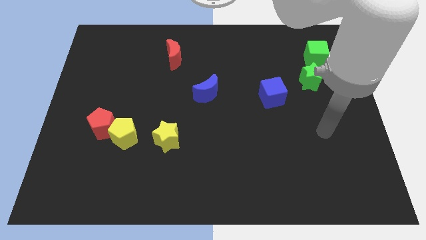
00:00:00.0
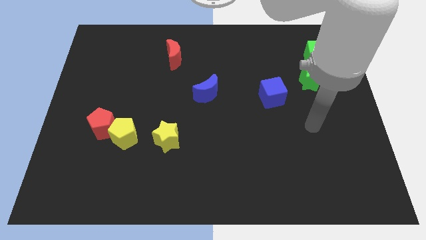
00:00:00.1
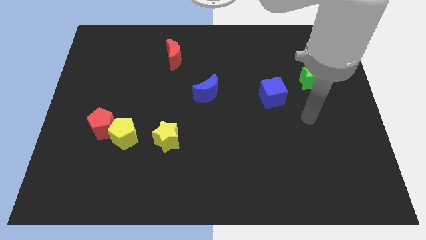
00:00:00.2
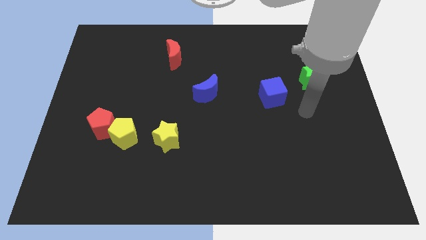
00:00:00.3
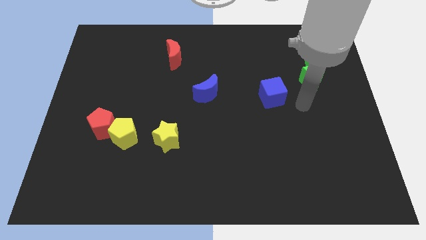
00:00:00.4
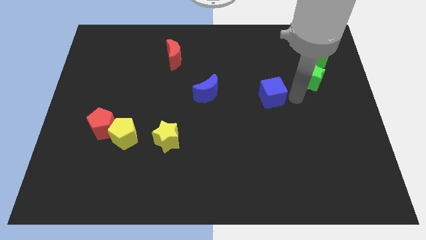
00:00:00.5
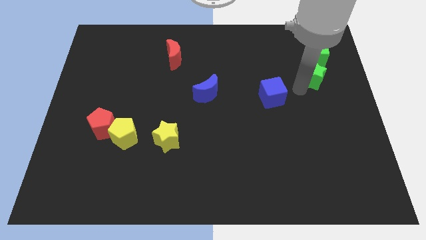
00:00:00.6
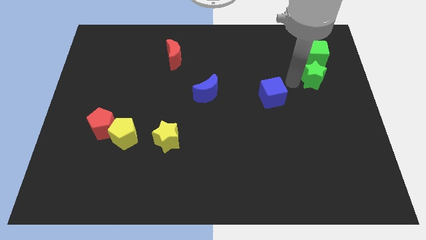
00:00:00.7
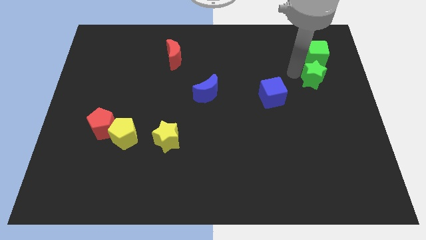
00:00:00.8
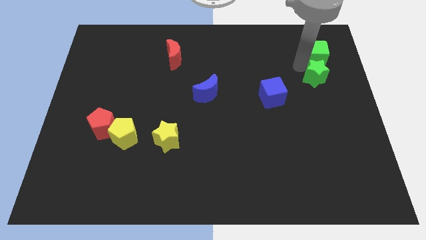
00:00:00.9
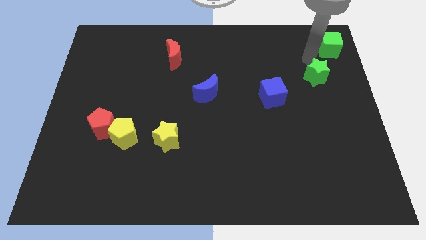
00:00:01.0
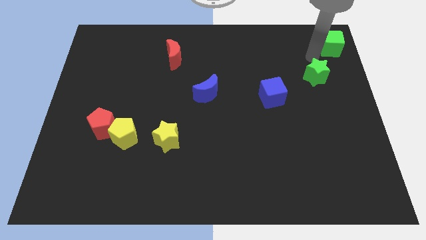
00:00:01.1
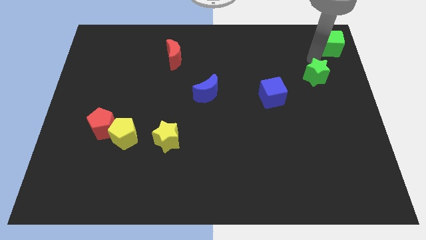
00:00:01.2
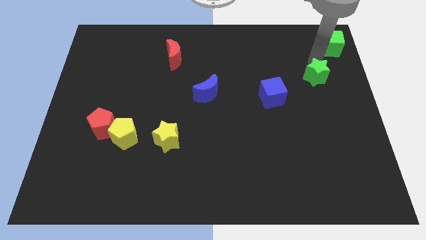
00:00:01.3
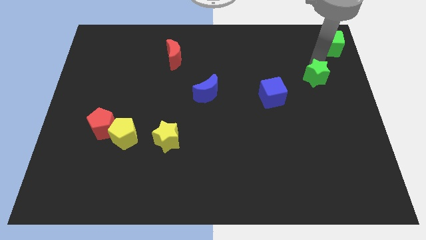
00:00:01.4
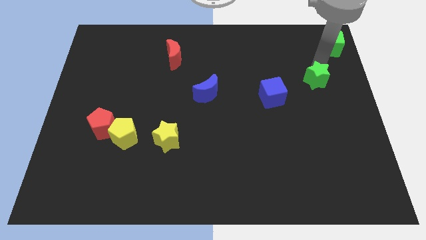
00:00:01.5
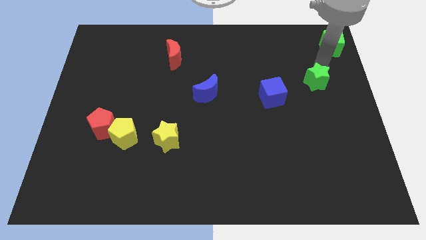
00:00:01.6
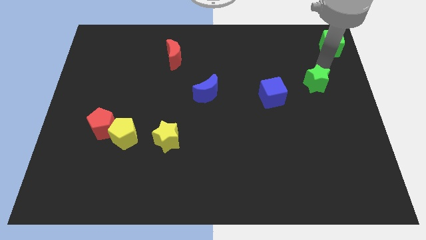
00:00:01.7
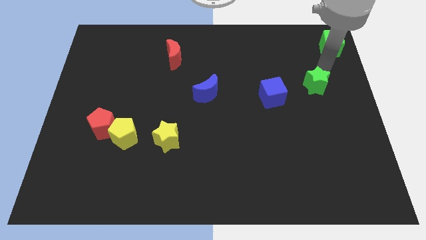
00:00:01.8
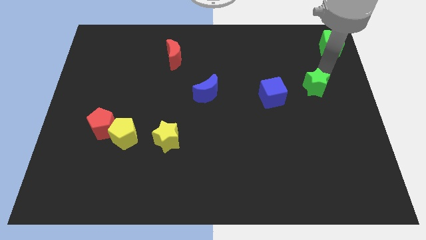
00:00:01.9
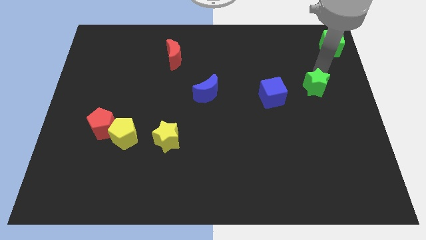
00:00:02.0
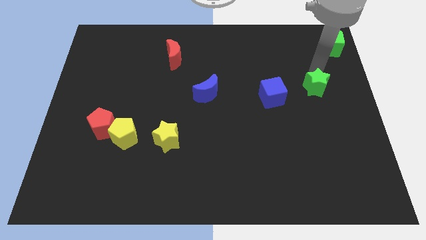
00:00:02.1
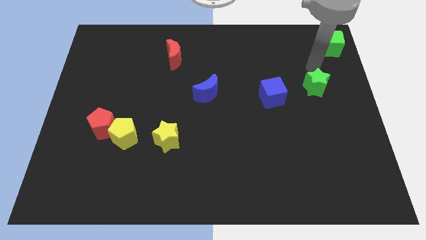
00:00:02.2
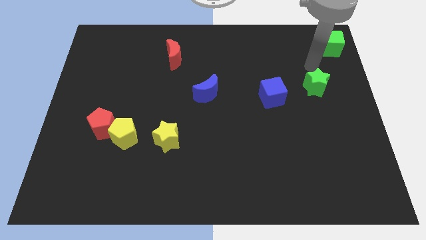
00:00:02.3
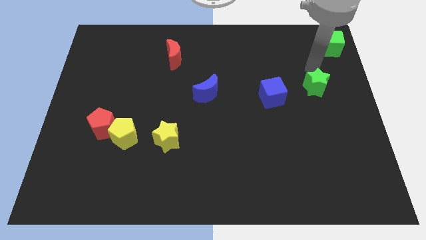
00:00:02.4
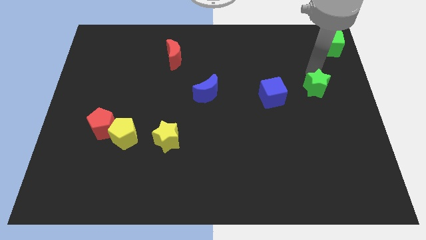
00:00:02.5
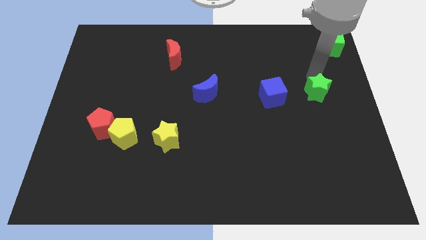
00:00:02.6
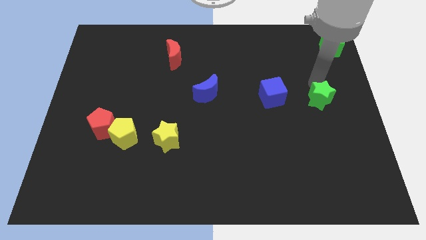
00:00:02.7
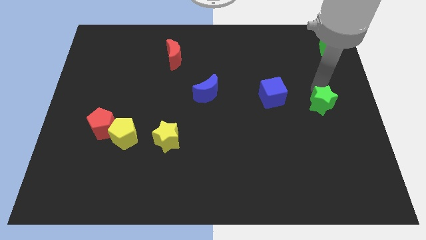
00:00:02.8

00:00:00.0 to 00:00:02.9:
move the green star down somewhat

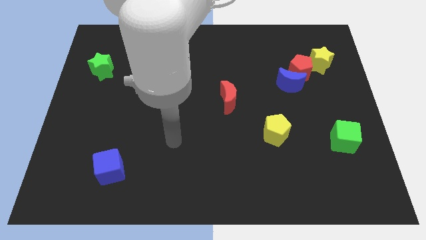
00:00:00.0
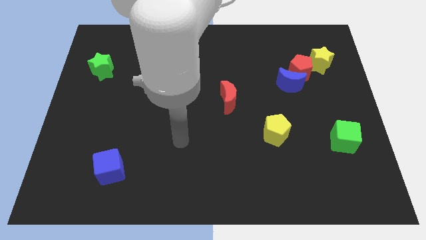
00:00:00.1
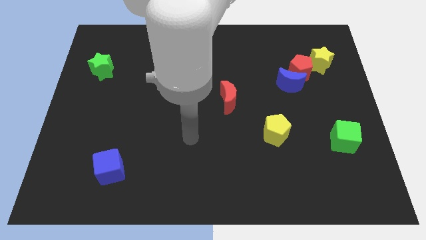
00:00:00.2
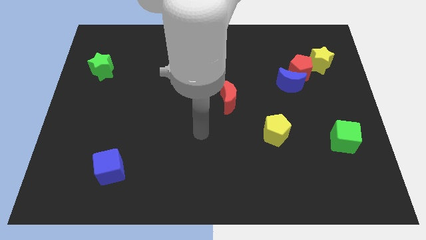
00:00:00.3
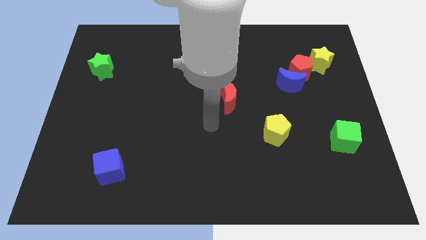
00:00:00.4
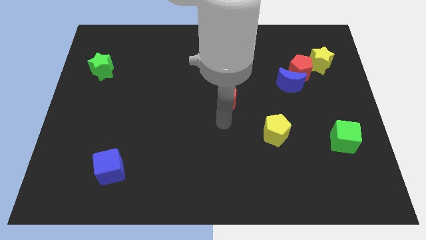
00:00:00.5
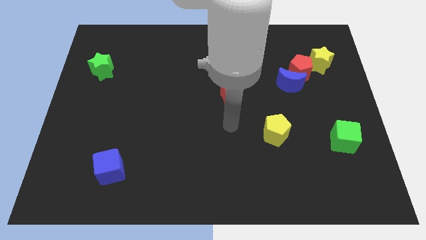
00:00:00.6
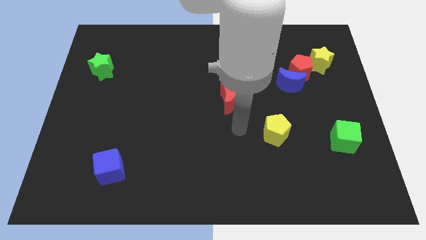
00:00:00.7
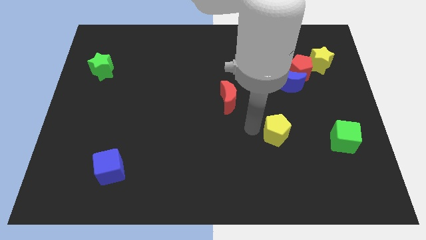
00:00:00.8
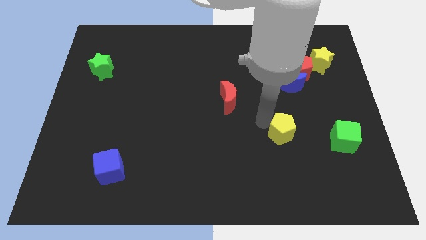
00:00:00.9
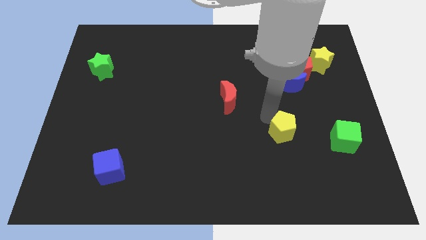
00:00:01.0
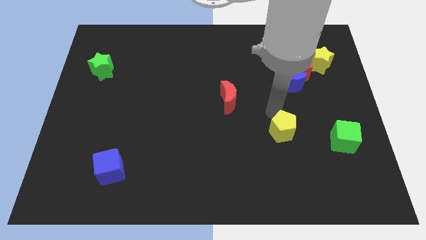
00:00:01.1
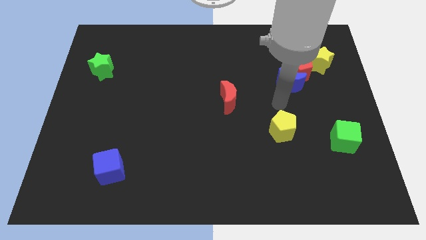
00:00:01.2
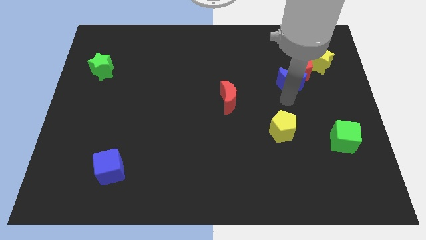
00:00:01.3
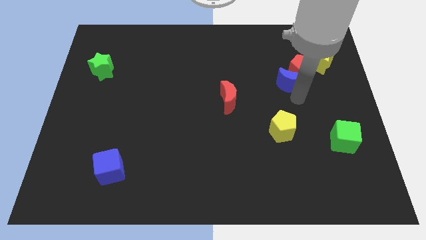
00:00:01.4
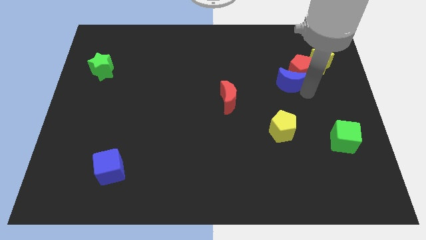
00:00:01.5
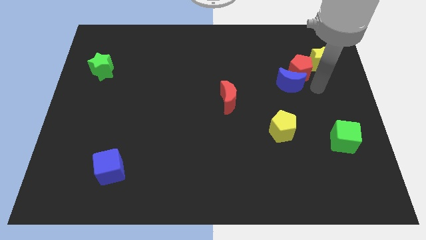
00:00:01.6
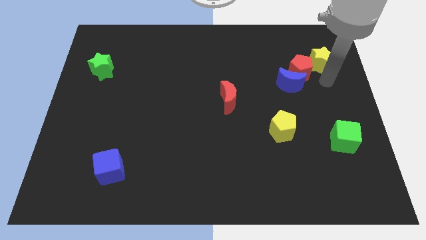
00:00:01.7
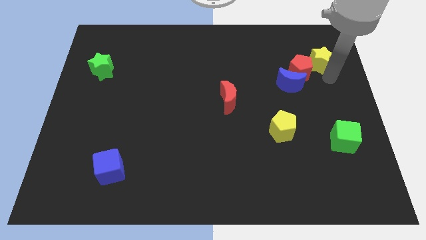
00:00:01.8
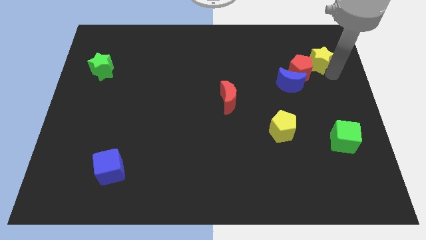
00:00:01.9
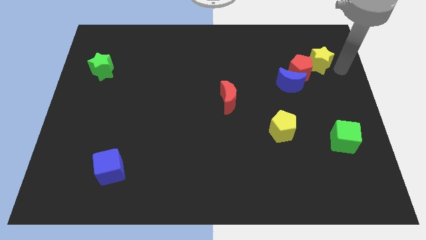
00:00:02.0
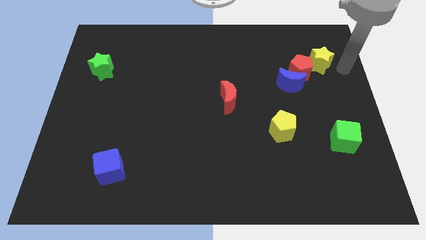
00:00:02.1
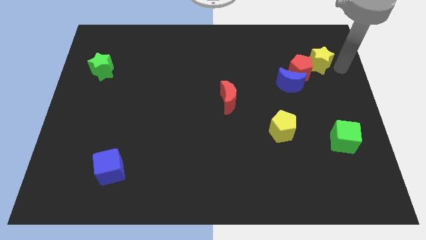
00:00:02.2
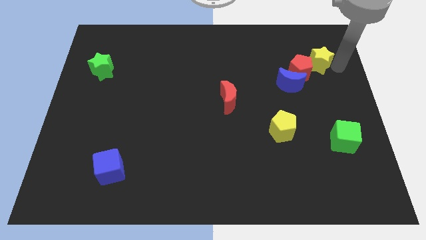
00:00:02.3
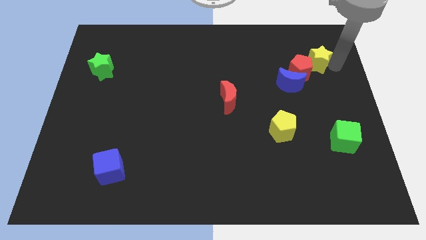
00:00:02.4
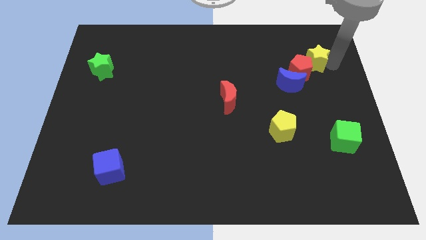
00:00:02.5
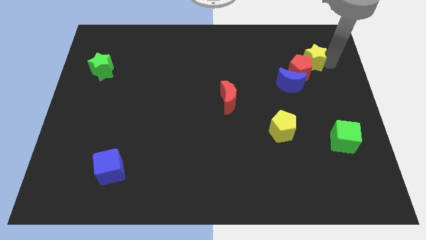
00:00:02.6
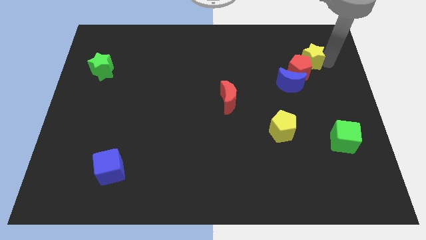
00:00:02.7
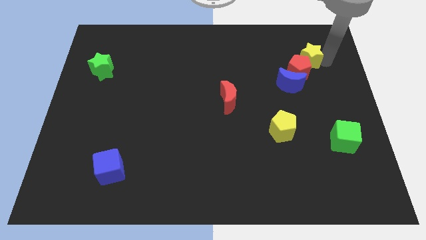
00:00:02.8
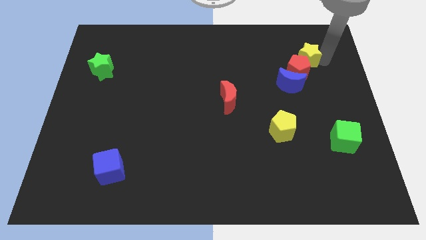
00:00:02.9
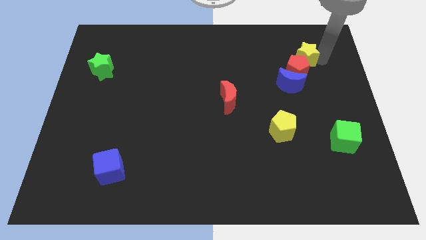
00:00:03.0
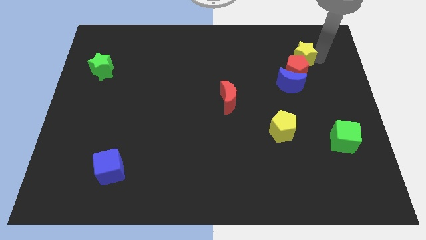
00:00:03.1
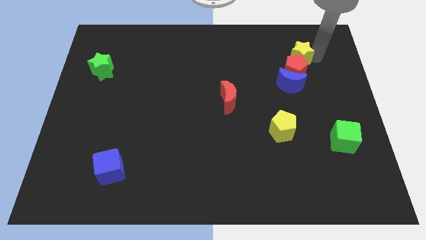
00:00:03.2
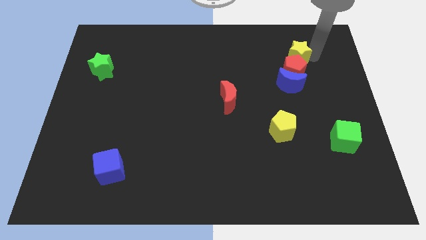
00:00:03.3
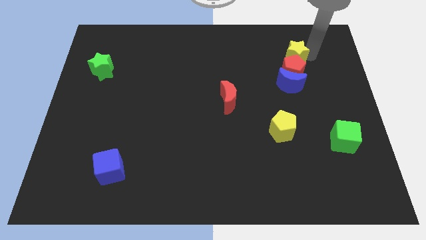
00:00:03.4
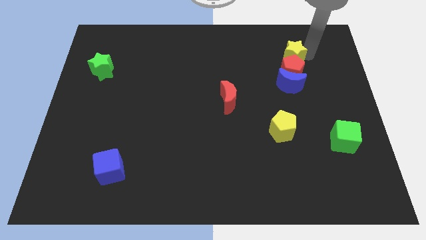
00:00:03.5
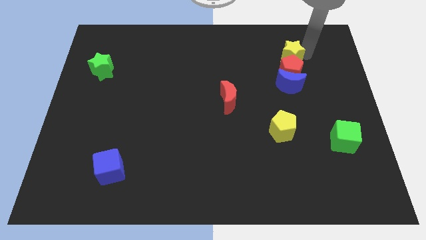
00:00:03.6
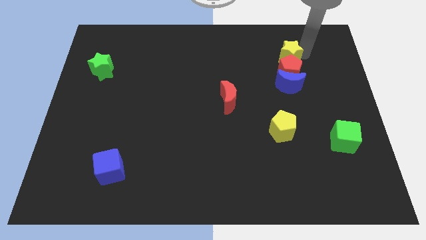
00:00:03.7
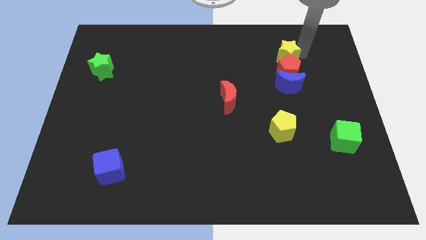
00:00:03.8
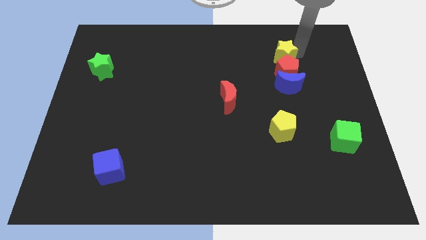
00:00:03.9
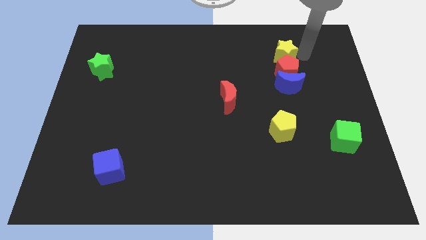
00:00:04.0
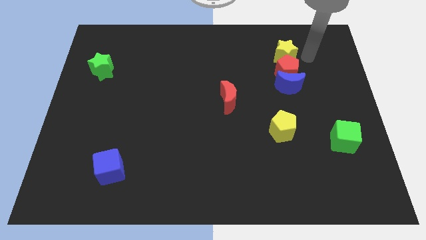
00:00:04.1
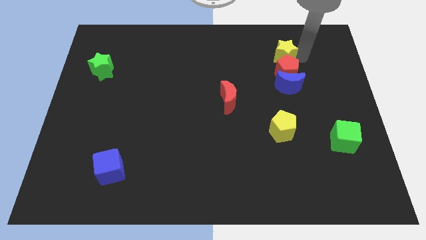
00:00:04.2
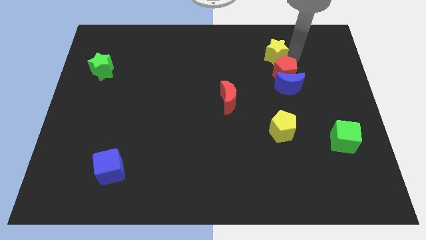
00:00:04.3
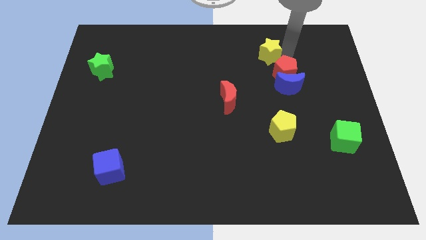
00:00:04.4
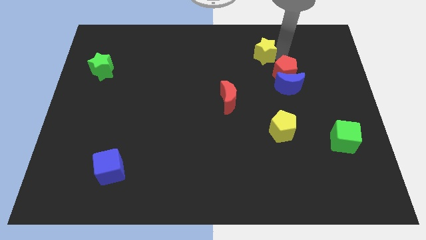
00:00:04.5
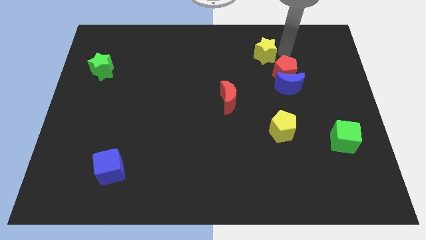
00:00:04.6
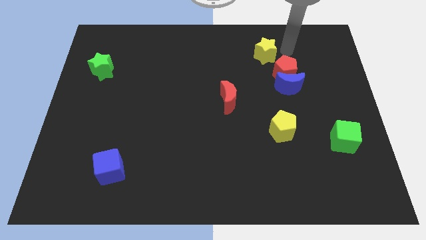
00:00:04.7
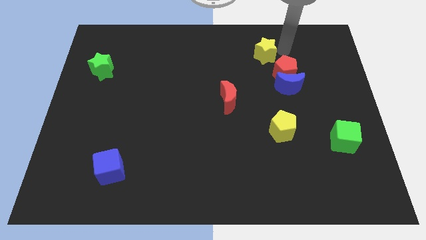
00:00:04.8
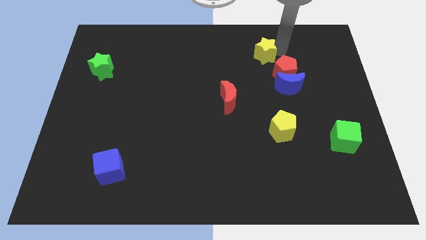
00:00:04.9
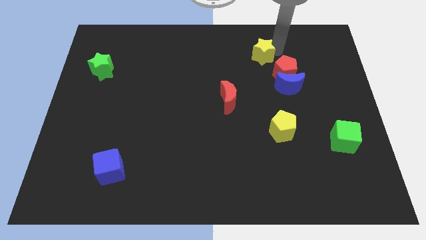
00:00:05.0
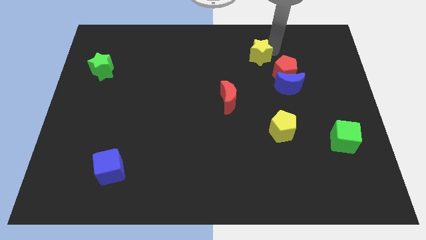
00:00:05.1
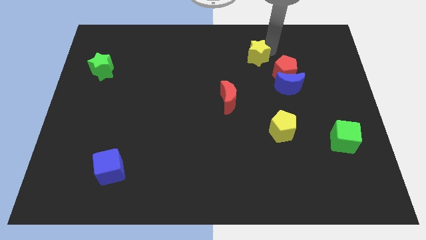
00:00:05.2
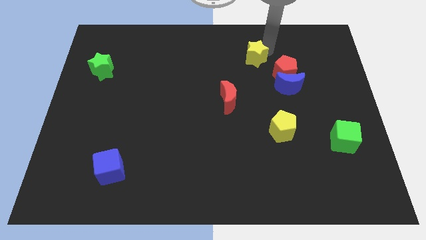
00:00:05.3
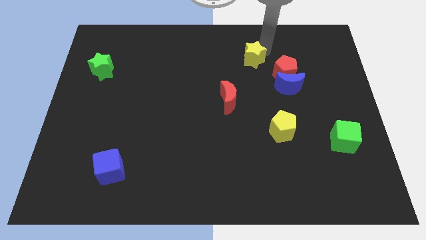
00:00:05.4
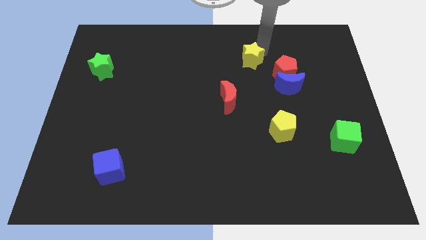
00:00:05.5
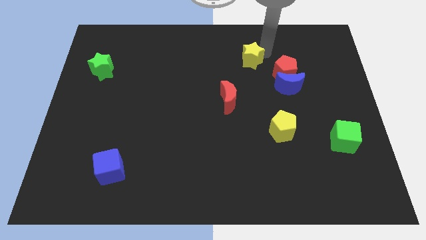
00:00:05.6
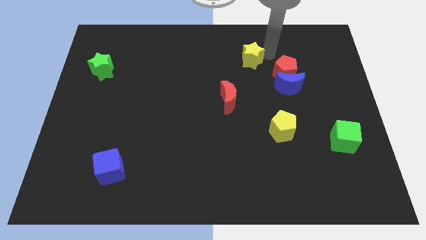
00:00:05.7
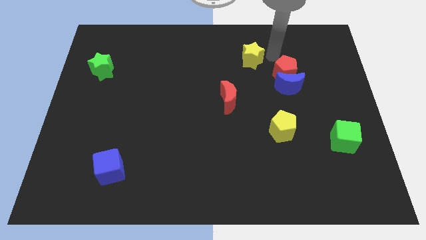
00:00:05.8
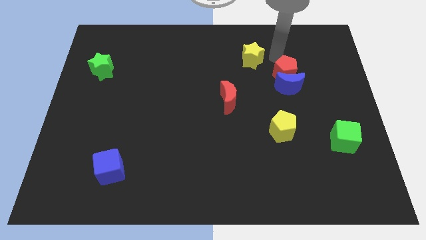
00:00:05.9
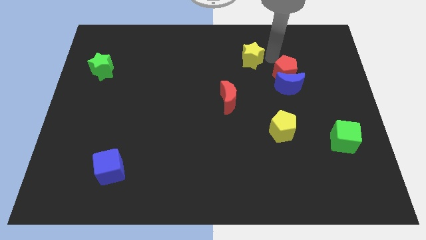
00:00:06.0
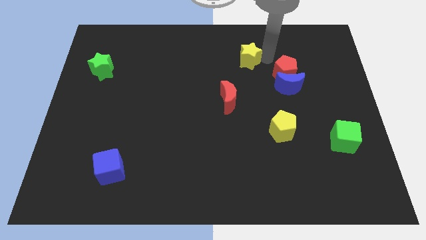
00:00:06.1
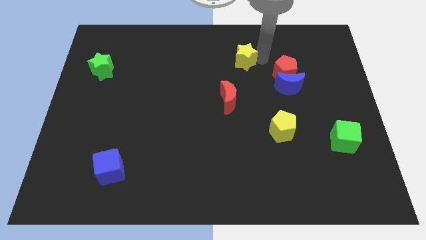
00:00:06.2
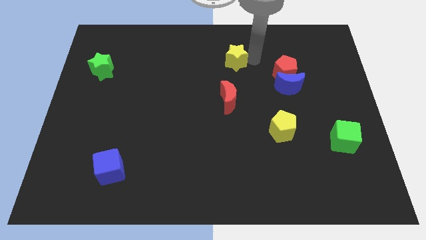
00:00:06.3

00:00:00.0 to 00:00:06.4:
move the yellow star left
